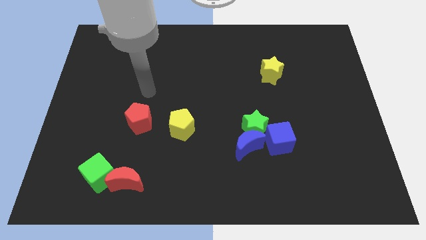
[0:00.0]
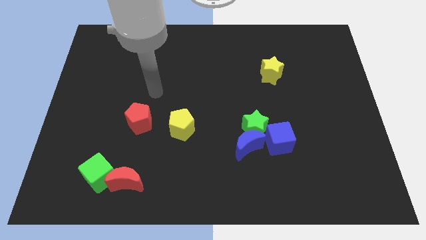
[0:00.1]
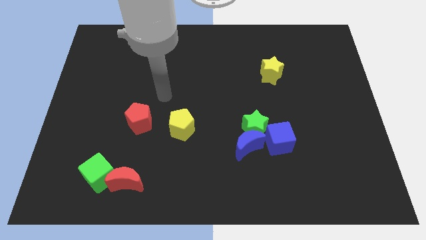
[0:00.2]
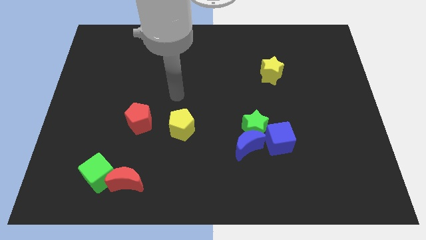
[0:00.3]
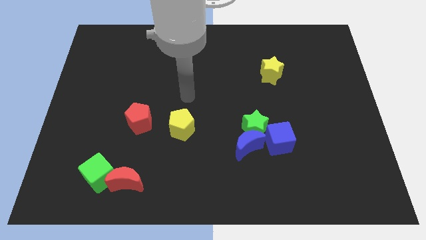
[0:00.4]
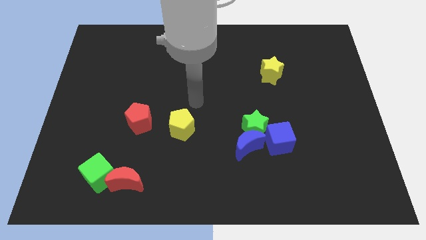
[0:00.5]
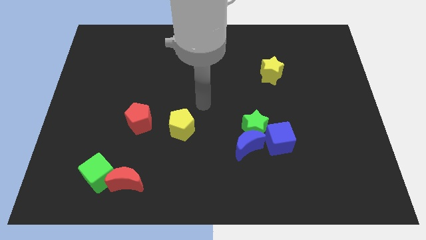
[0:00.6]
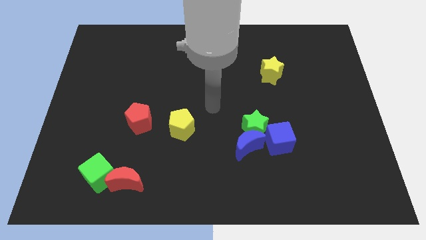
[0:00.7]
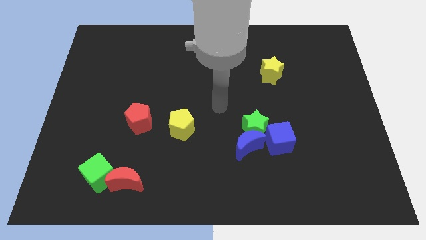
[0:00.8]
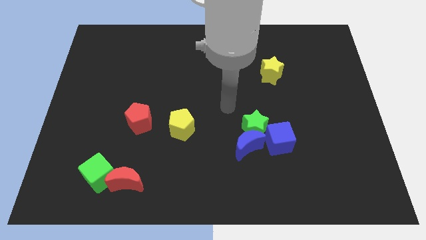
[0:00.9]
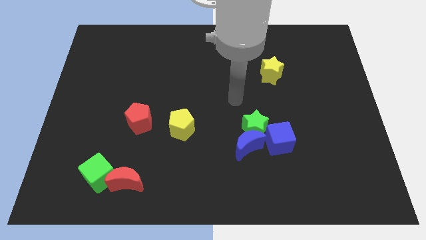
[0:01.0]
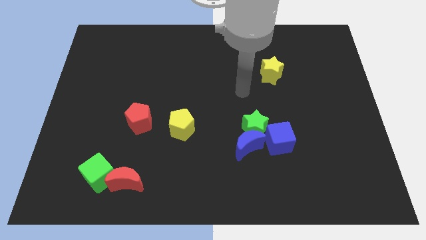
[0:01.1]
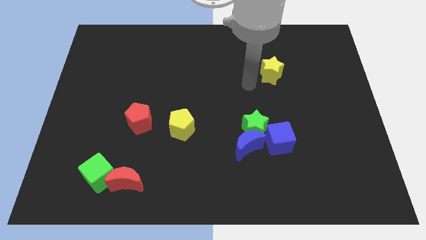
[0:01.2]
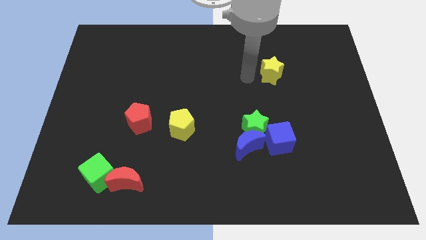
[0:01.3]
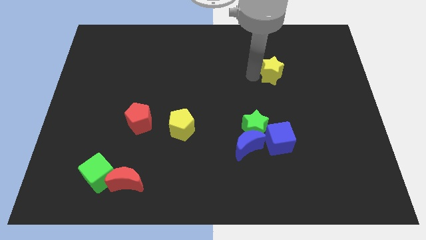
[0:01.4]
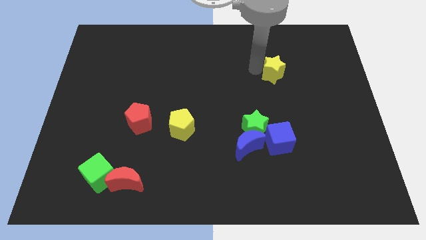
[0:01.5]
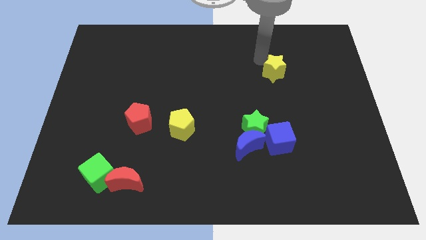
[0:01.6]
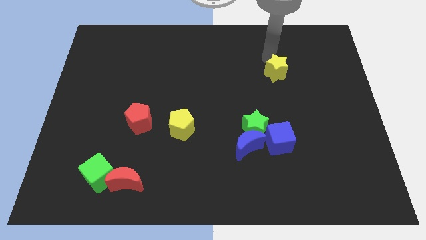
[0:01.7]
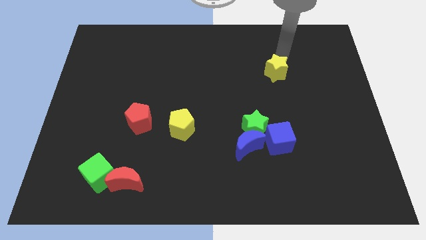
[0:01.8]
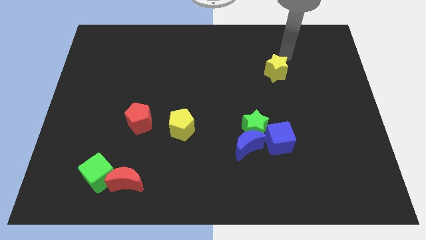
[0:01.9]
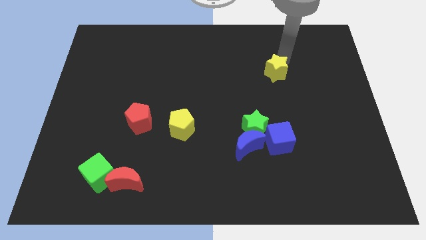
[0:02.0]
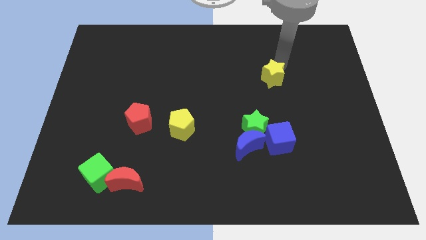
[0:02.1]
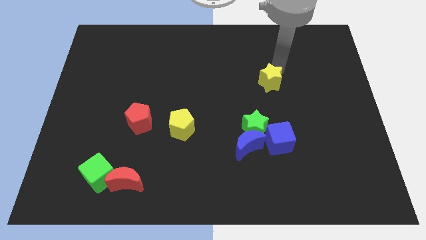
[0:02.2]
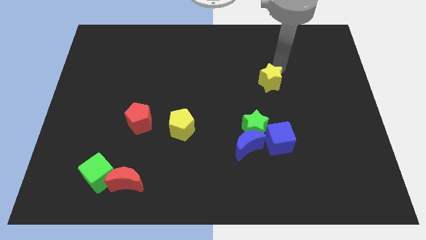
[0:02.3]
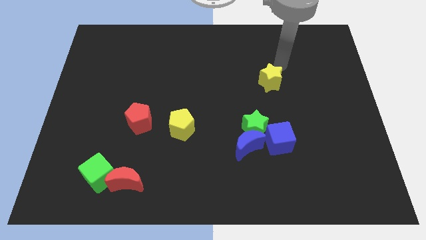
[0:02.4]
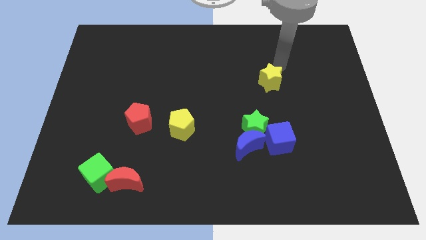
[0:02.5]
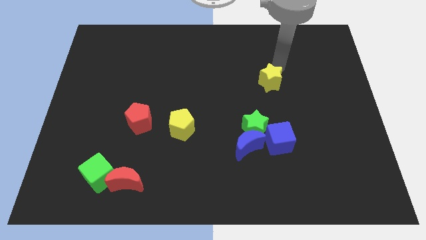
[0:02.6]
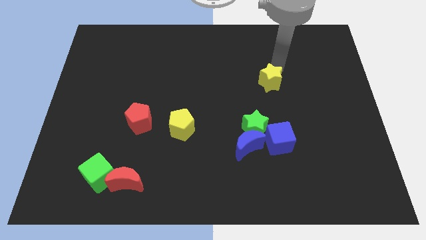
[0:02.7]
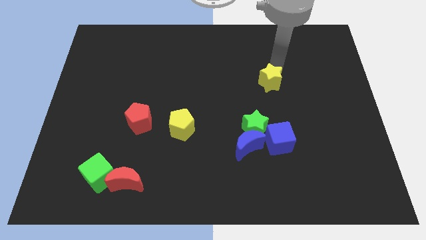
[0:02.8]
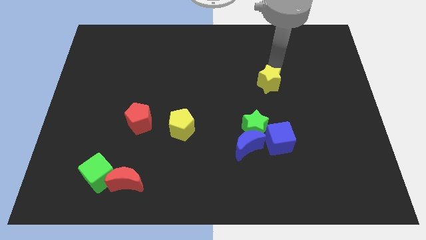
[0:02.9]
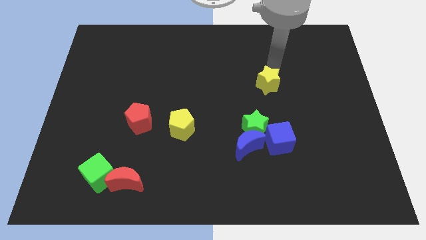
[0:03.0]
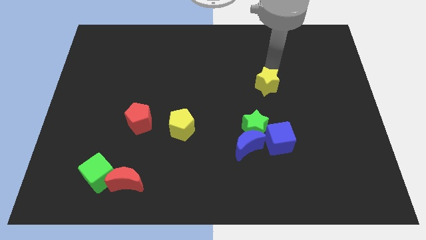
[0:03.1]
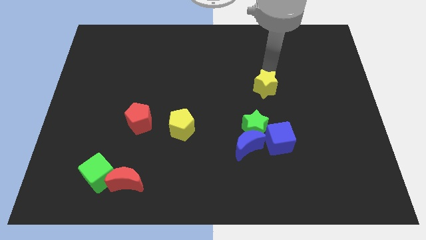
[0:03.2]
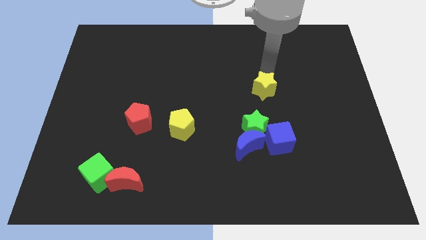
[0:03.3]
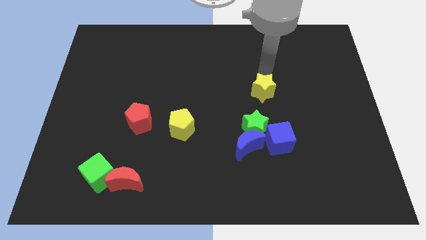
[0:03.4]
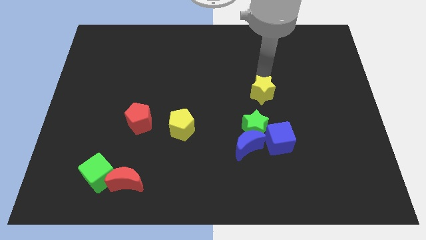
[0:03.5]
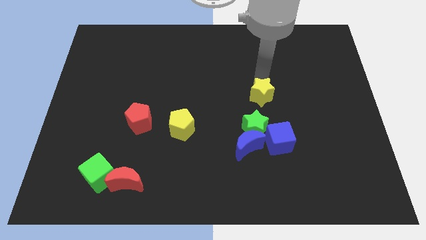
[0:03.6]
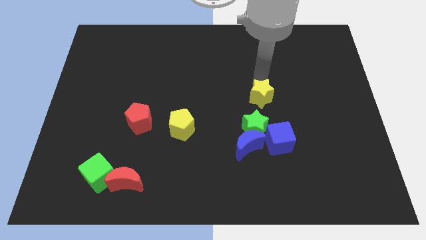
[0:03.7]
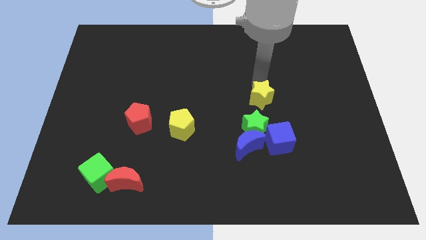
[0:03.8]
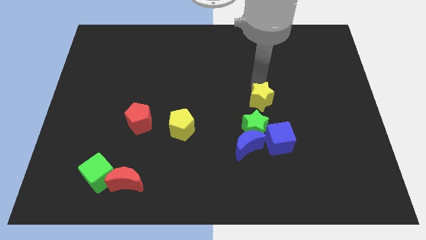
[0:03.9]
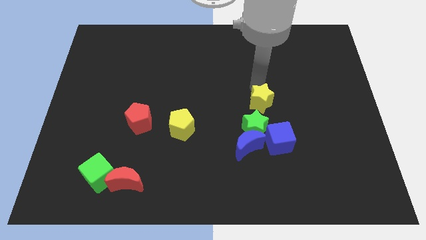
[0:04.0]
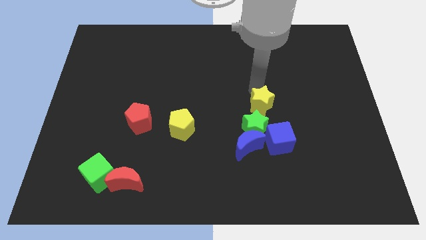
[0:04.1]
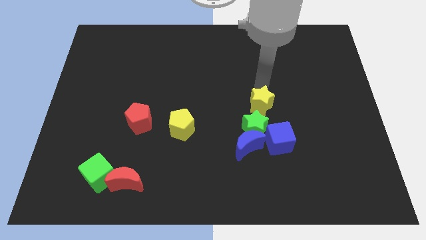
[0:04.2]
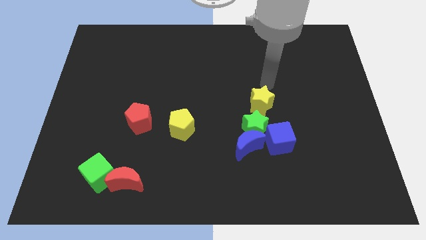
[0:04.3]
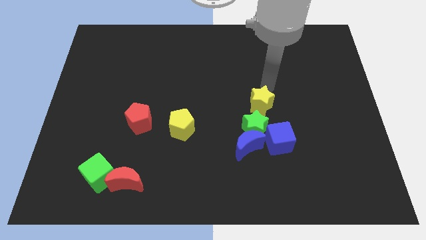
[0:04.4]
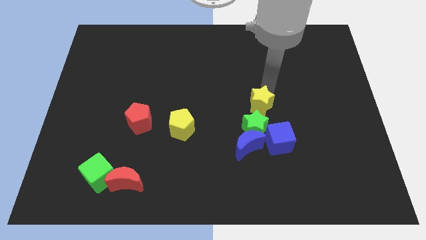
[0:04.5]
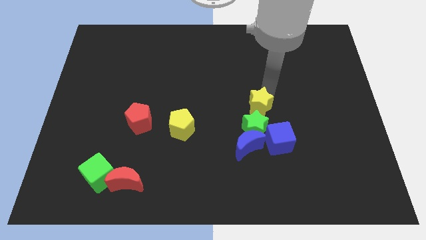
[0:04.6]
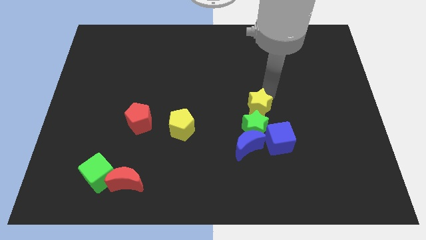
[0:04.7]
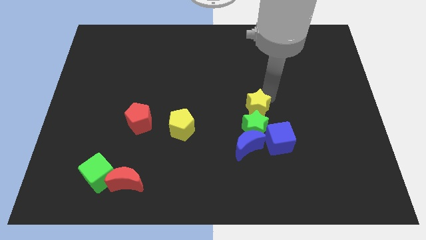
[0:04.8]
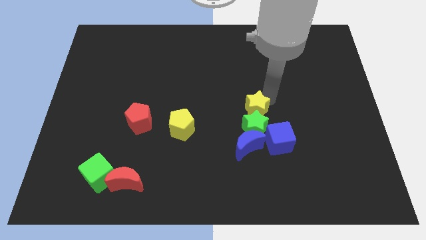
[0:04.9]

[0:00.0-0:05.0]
slide the yellow star towards the green star

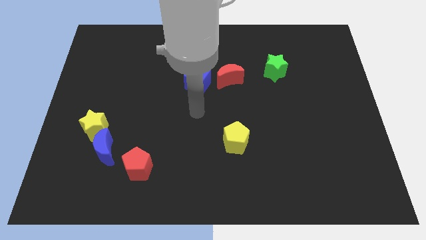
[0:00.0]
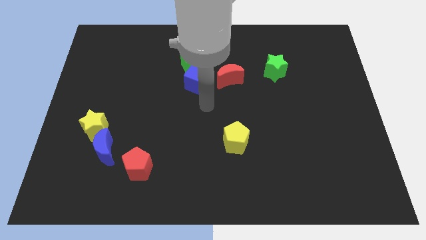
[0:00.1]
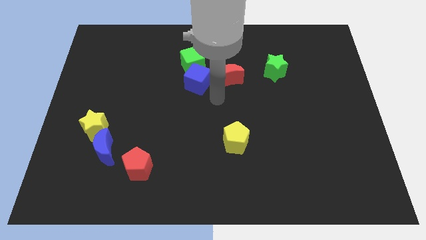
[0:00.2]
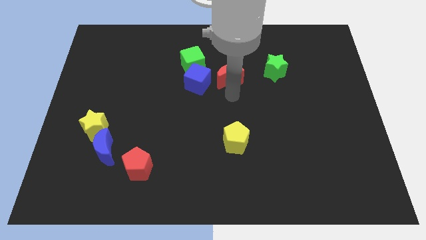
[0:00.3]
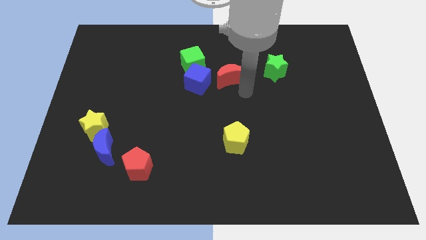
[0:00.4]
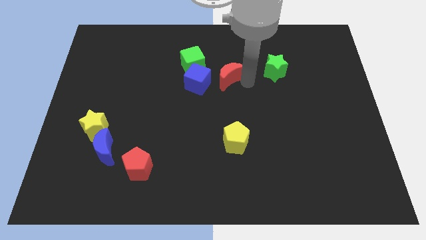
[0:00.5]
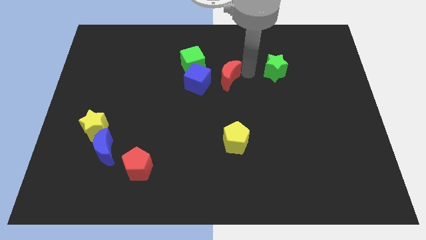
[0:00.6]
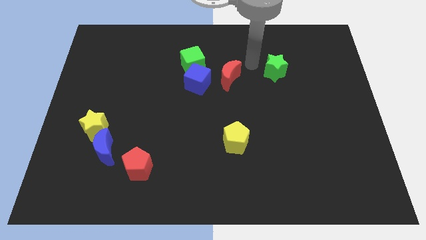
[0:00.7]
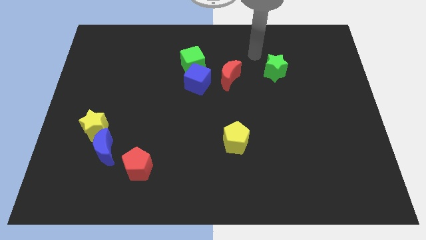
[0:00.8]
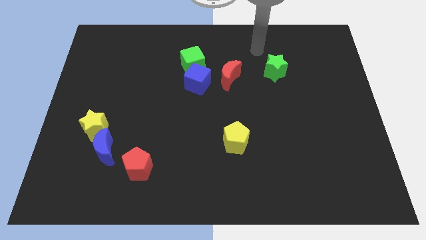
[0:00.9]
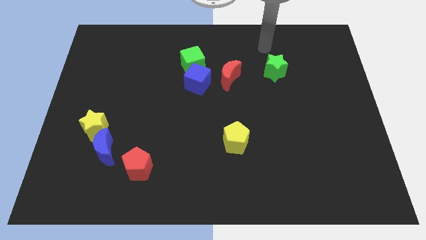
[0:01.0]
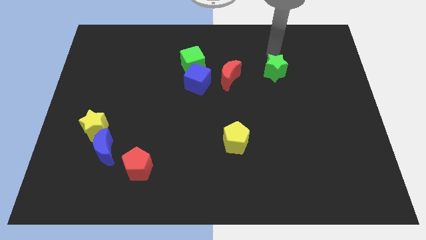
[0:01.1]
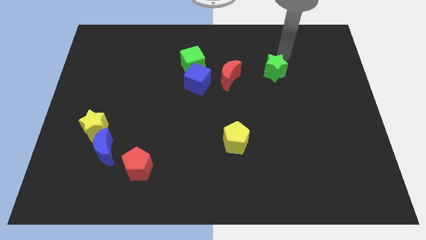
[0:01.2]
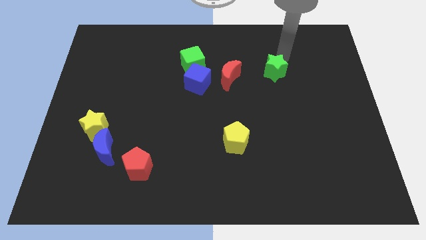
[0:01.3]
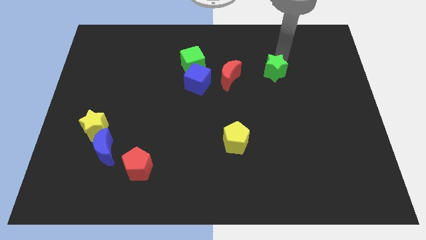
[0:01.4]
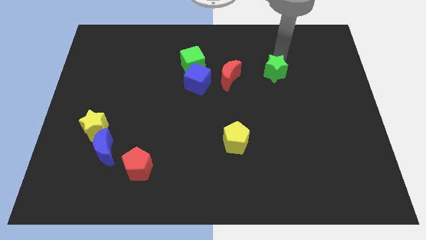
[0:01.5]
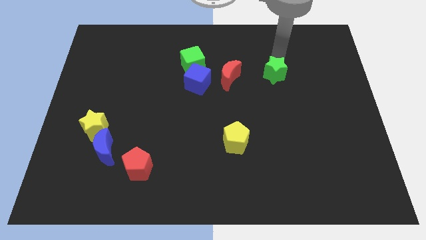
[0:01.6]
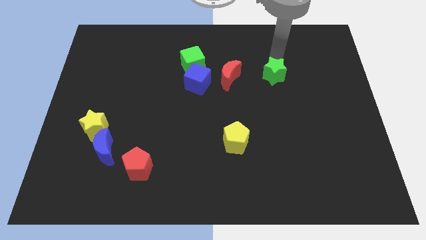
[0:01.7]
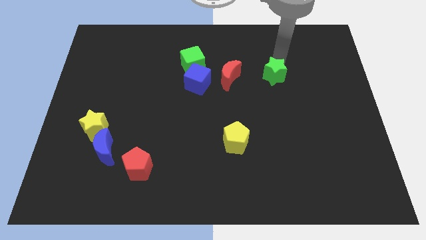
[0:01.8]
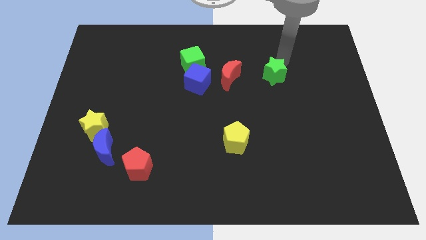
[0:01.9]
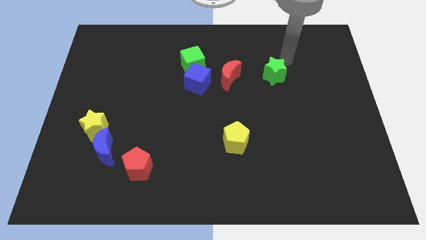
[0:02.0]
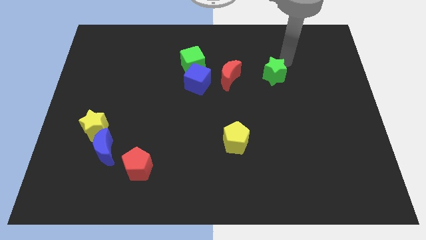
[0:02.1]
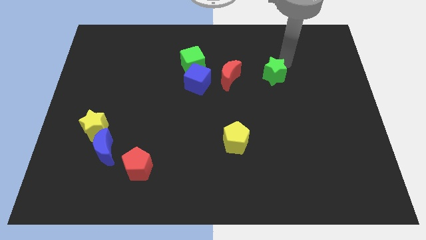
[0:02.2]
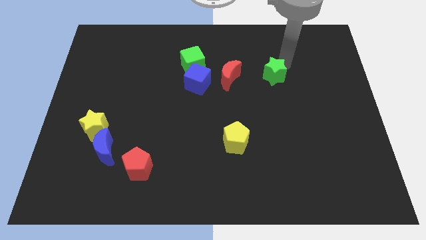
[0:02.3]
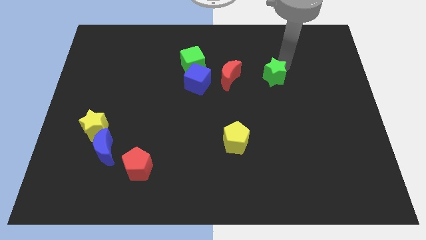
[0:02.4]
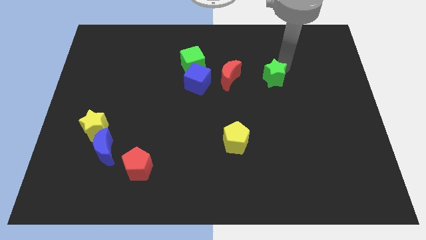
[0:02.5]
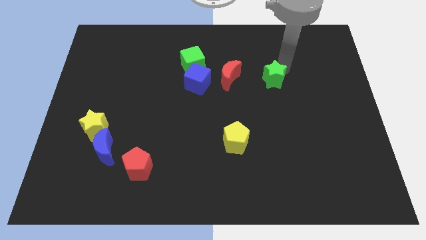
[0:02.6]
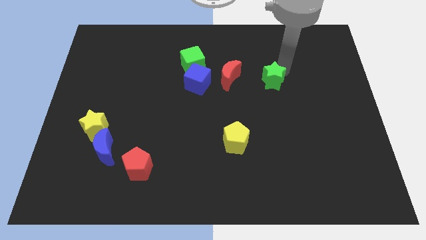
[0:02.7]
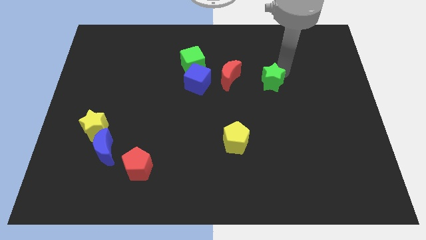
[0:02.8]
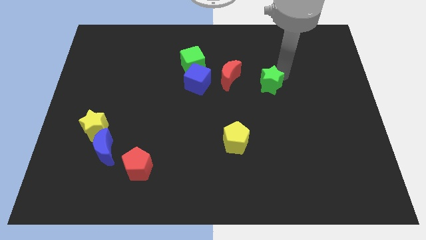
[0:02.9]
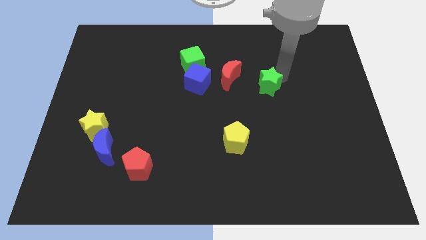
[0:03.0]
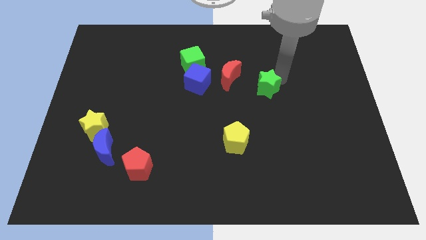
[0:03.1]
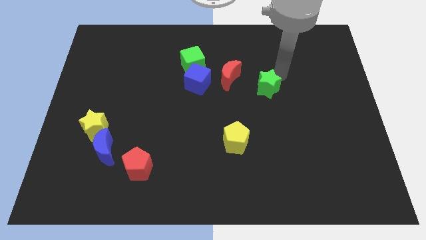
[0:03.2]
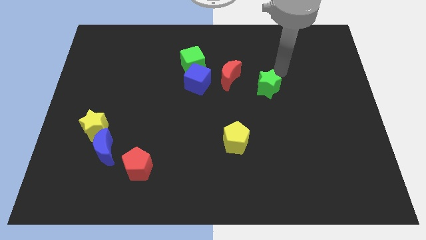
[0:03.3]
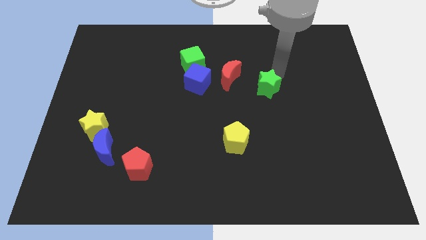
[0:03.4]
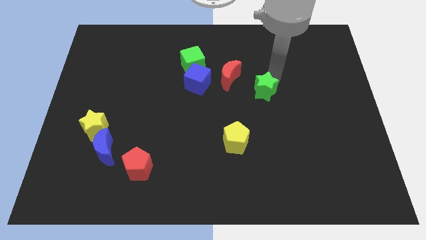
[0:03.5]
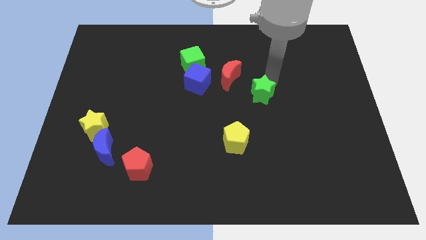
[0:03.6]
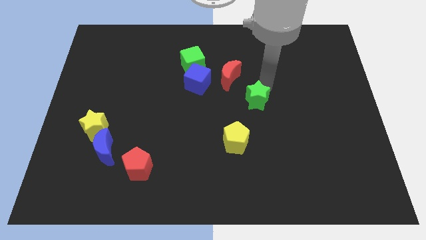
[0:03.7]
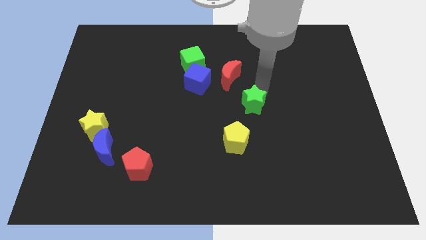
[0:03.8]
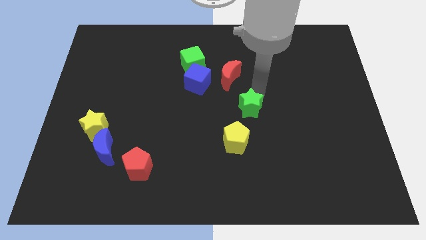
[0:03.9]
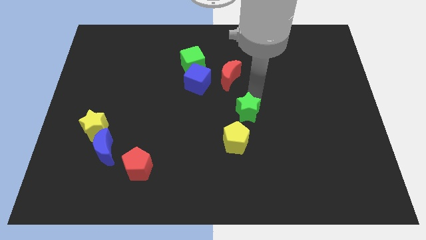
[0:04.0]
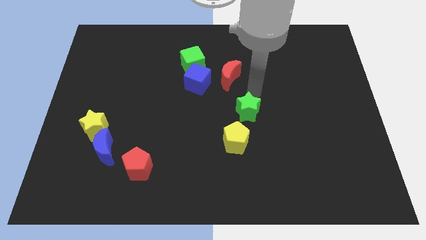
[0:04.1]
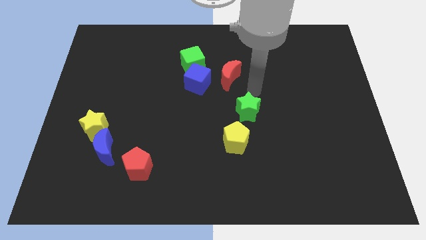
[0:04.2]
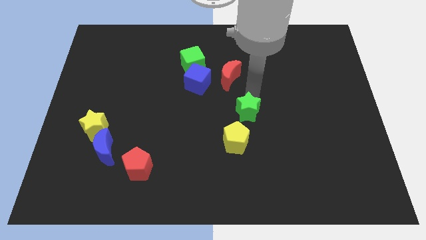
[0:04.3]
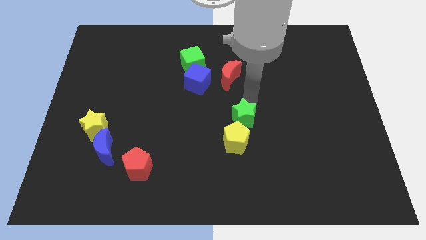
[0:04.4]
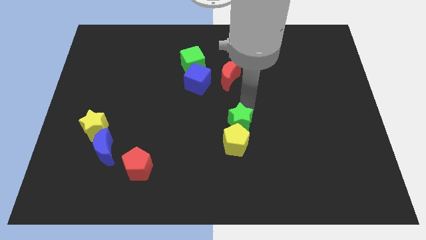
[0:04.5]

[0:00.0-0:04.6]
push the green star next to the yellow pentagon
